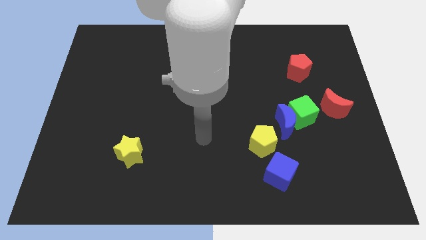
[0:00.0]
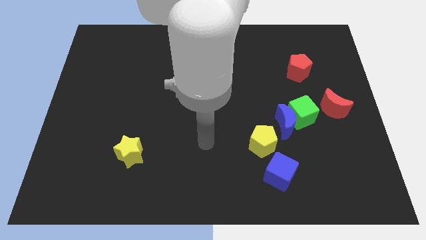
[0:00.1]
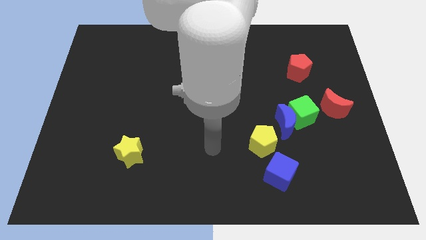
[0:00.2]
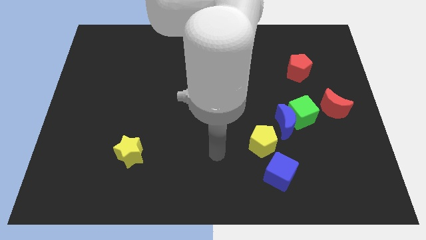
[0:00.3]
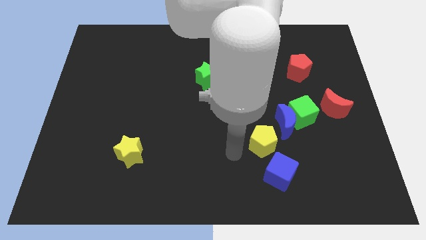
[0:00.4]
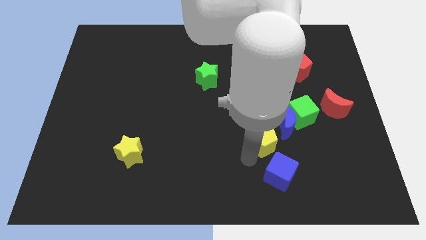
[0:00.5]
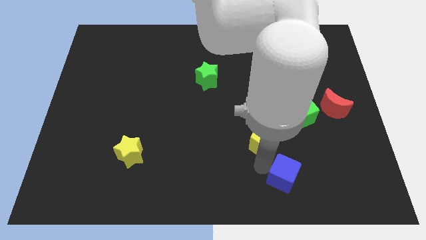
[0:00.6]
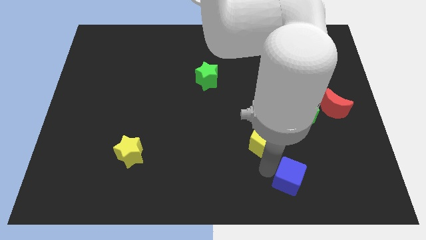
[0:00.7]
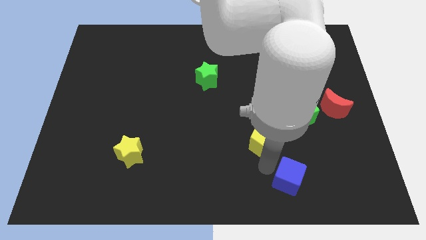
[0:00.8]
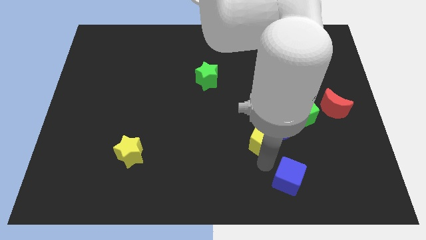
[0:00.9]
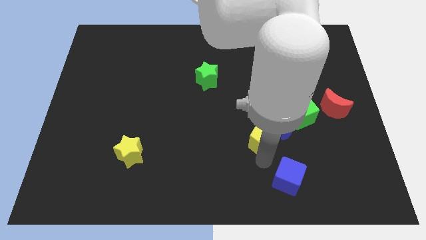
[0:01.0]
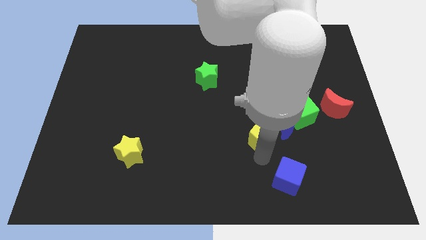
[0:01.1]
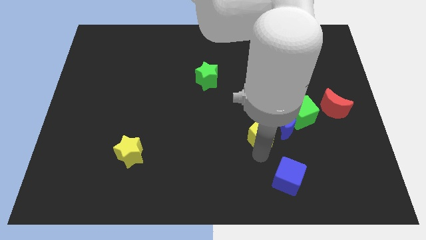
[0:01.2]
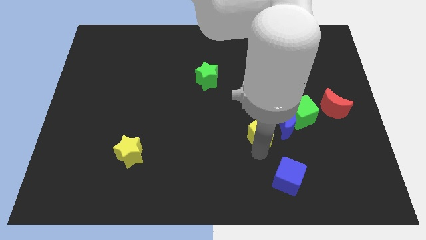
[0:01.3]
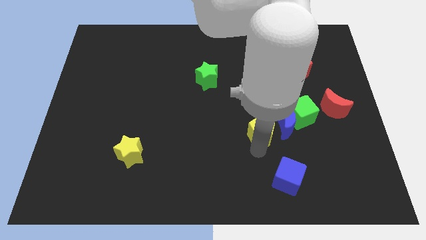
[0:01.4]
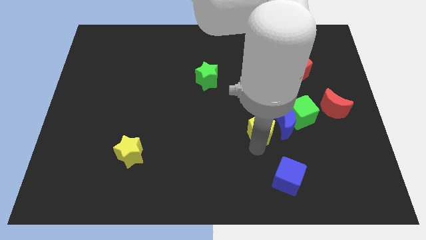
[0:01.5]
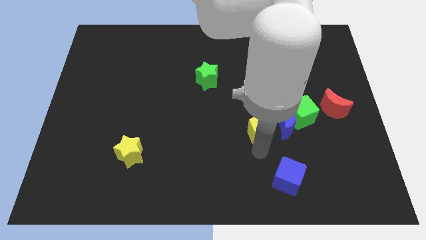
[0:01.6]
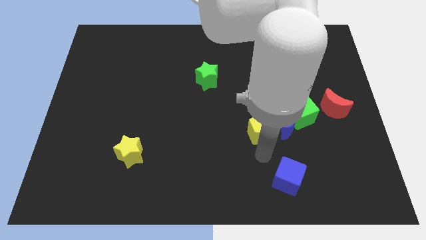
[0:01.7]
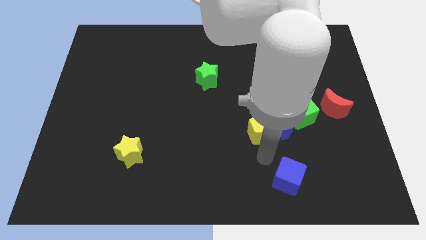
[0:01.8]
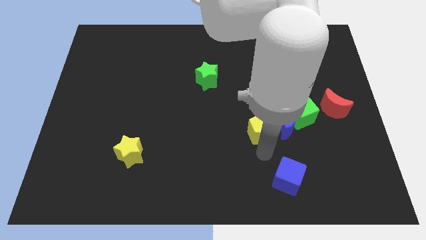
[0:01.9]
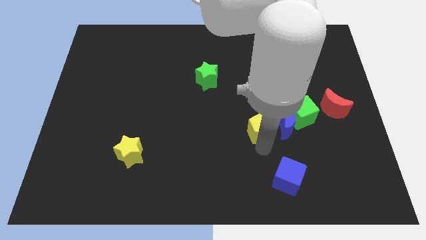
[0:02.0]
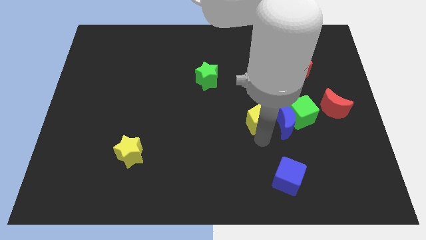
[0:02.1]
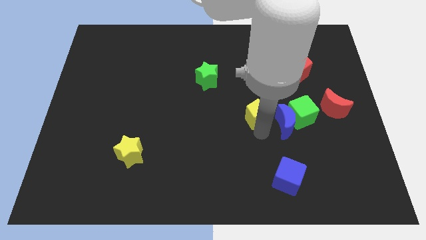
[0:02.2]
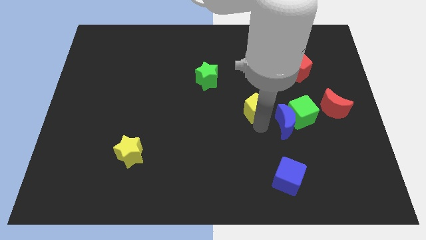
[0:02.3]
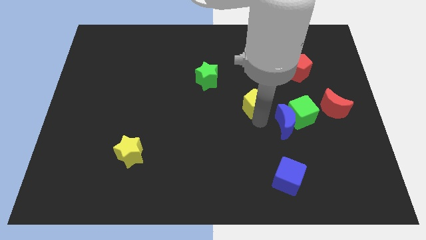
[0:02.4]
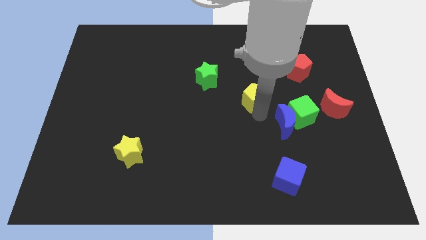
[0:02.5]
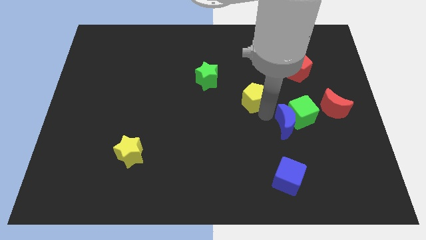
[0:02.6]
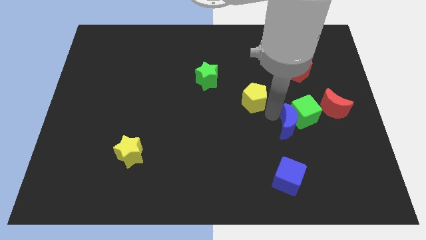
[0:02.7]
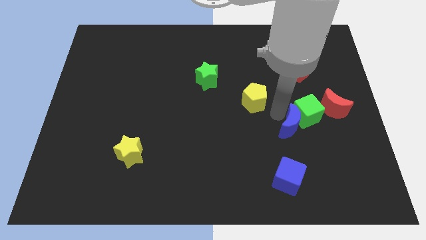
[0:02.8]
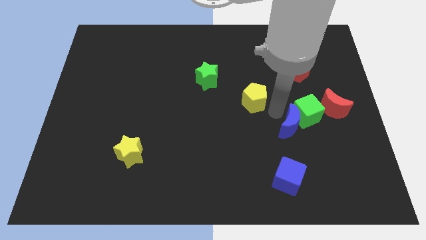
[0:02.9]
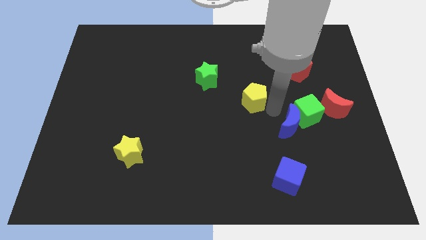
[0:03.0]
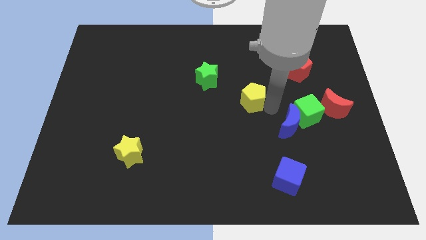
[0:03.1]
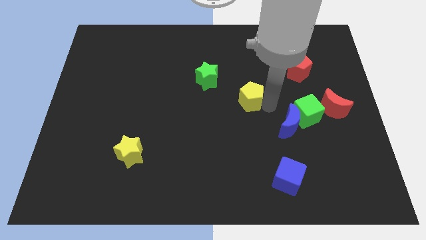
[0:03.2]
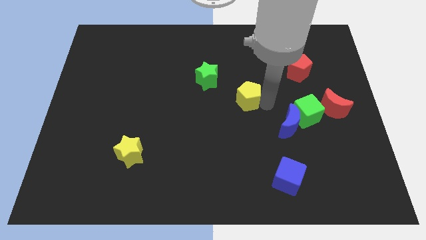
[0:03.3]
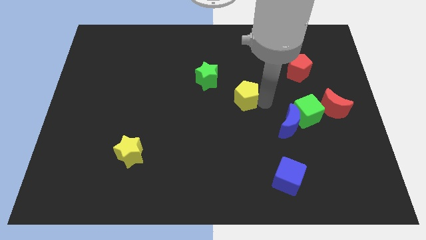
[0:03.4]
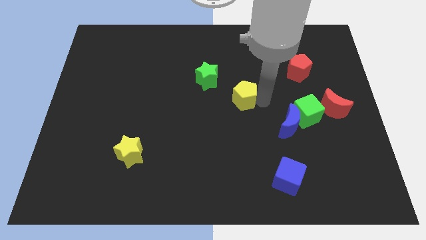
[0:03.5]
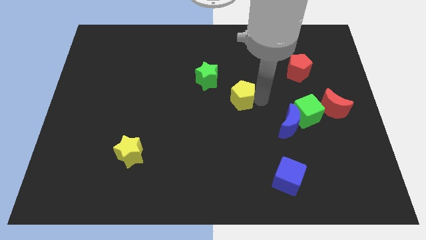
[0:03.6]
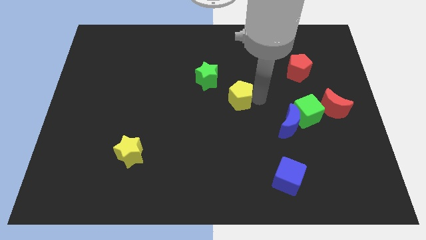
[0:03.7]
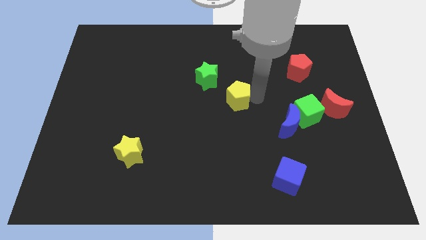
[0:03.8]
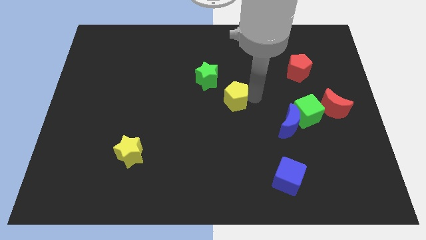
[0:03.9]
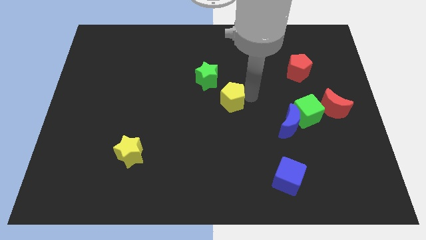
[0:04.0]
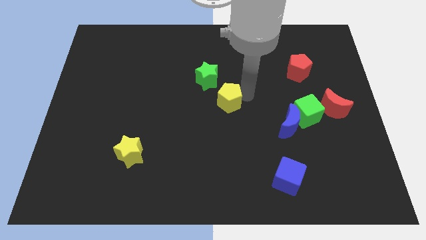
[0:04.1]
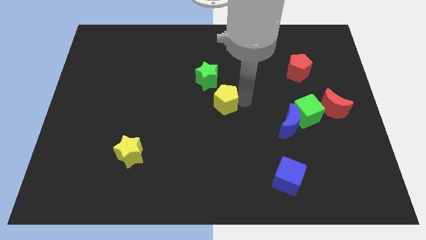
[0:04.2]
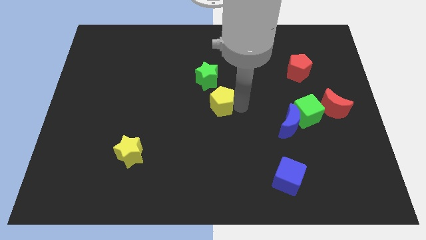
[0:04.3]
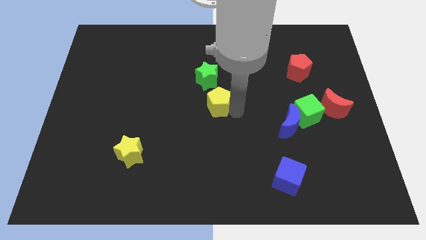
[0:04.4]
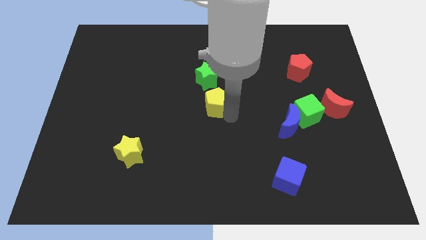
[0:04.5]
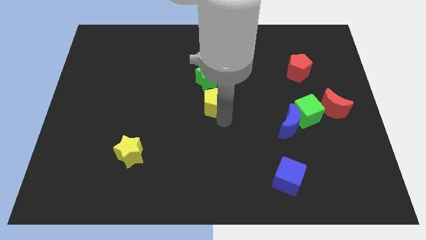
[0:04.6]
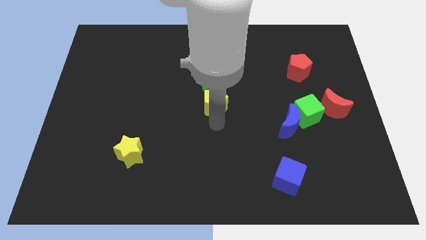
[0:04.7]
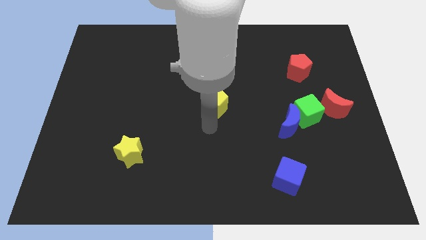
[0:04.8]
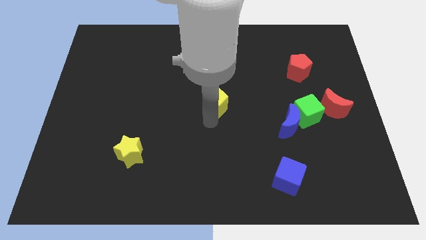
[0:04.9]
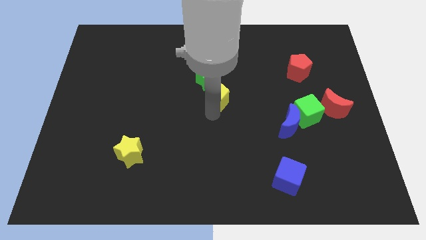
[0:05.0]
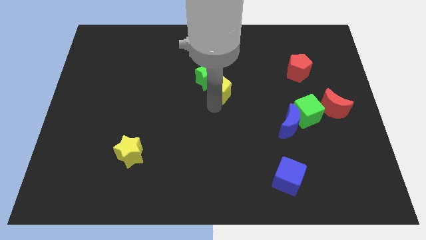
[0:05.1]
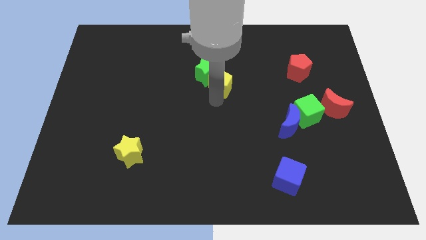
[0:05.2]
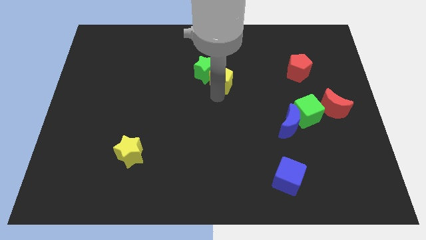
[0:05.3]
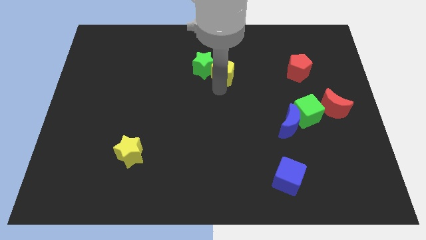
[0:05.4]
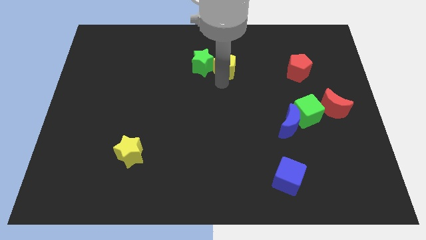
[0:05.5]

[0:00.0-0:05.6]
slide the yellow pentagon diagonally up and to the right of the green star

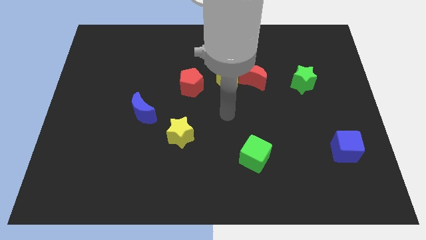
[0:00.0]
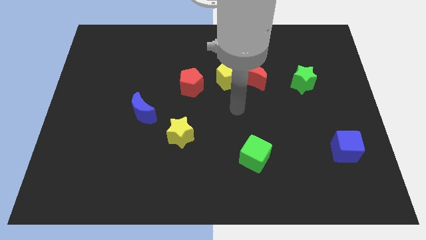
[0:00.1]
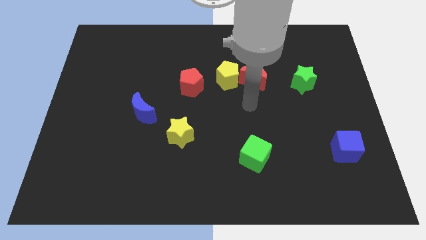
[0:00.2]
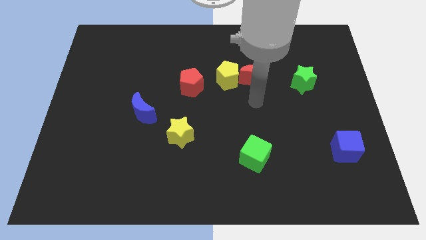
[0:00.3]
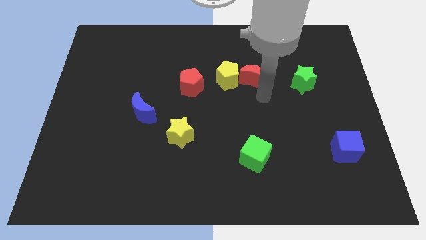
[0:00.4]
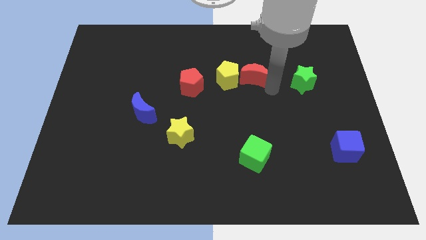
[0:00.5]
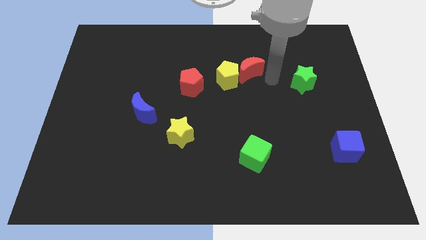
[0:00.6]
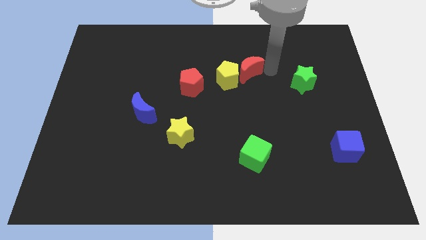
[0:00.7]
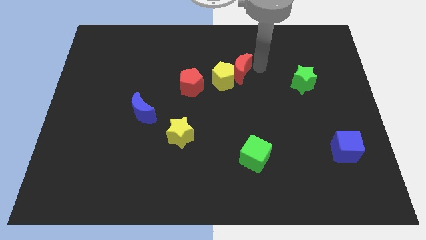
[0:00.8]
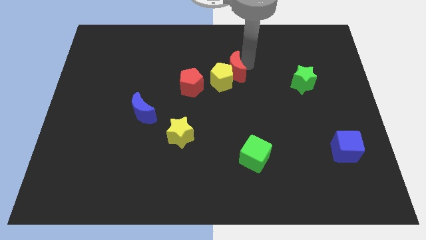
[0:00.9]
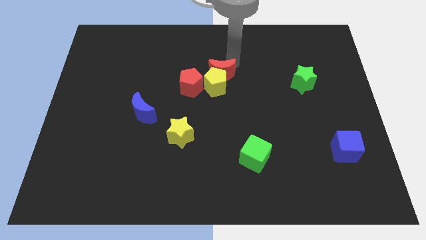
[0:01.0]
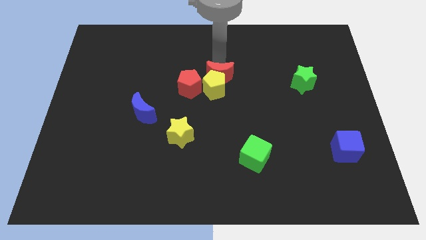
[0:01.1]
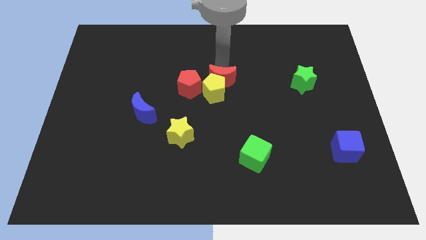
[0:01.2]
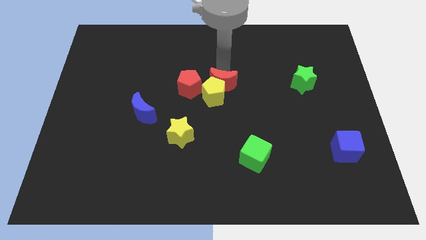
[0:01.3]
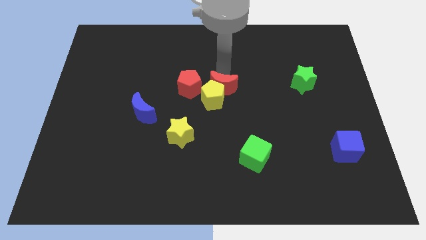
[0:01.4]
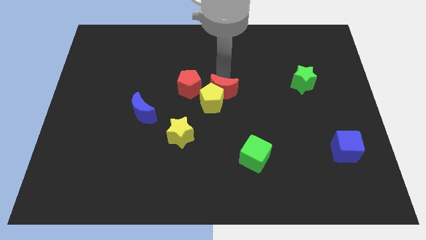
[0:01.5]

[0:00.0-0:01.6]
put the yellow pentagon to the top right of the yellow star
